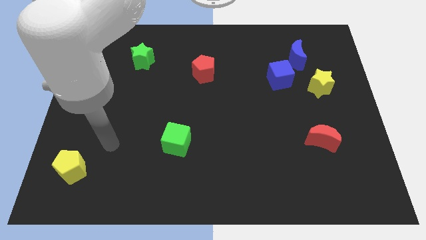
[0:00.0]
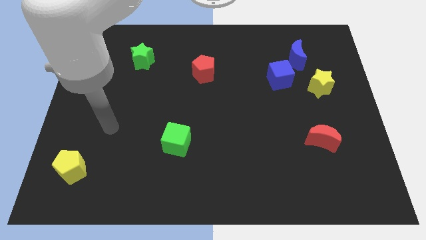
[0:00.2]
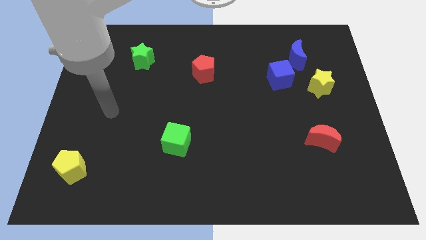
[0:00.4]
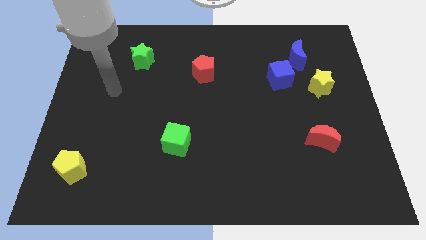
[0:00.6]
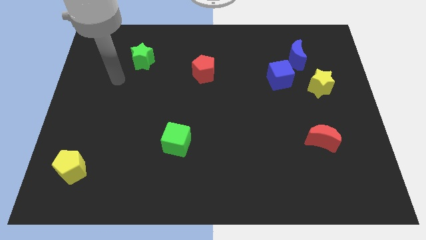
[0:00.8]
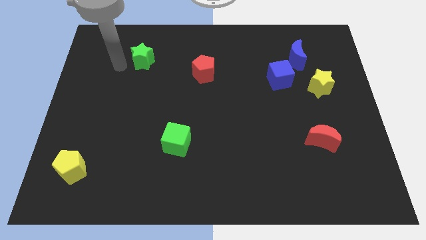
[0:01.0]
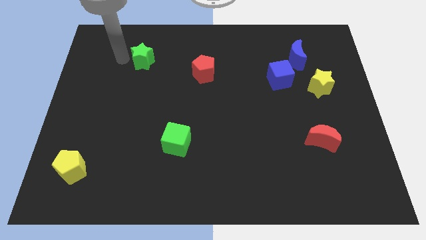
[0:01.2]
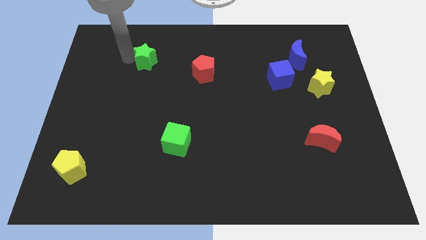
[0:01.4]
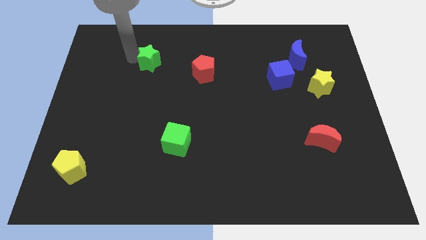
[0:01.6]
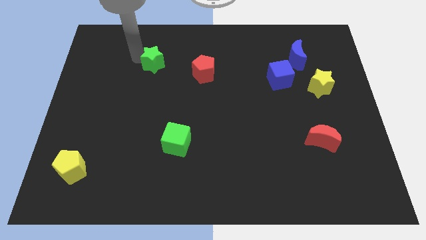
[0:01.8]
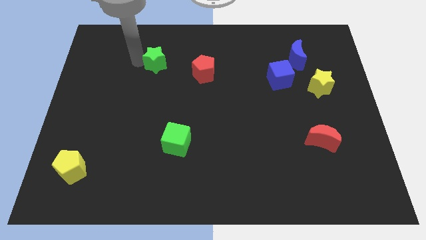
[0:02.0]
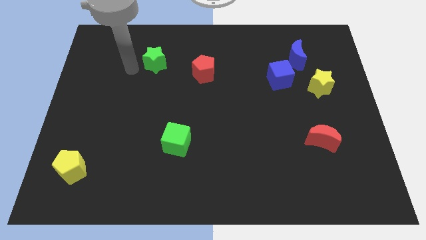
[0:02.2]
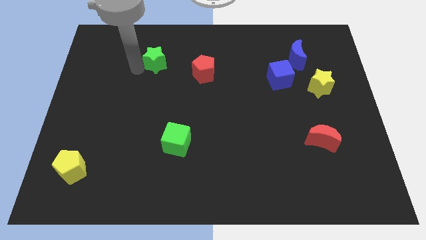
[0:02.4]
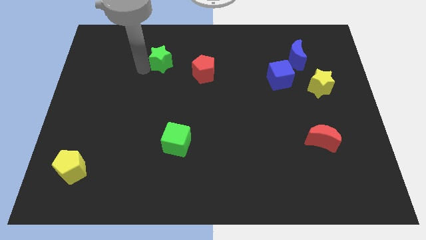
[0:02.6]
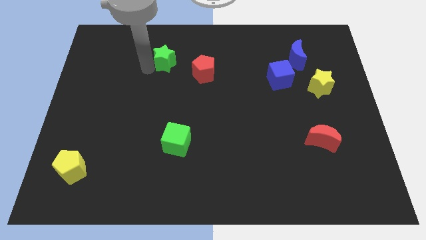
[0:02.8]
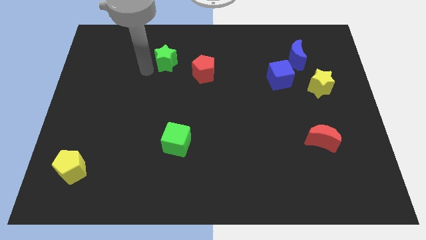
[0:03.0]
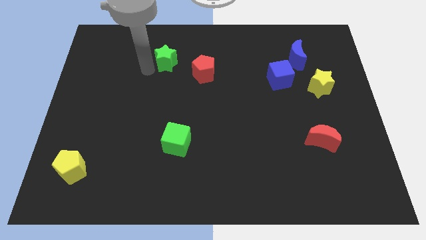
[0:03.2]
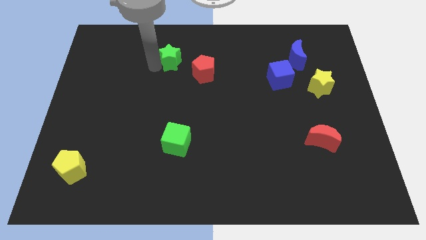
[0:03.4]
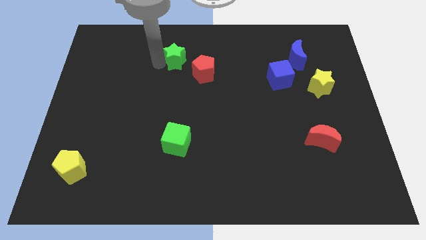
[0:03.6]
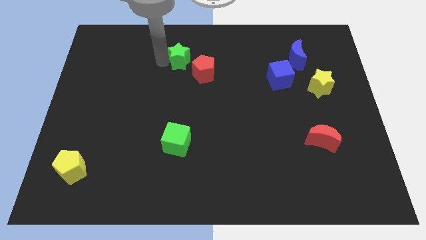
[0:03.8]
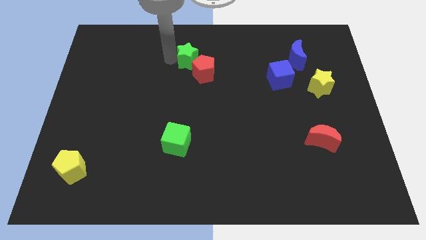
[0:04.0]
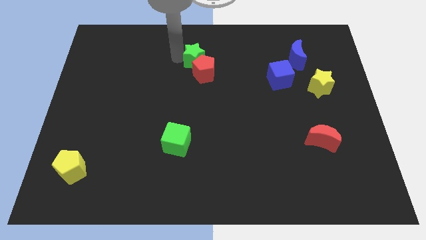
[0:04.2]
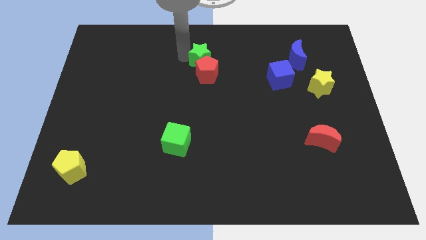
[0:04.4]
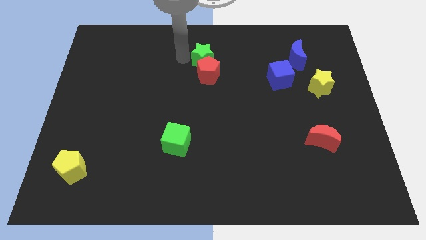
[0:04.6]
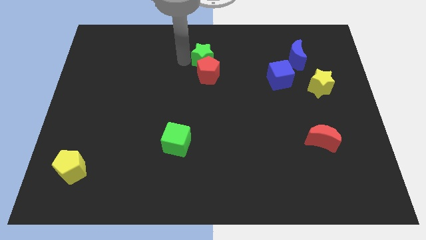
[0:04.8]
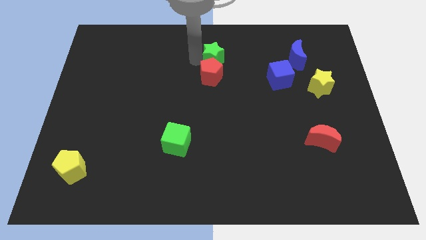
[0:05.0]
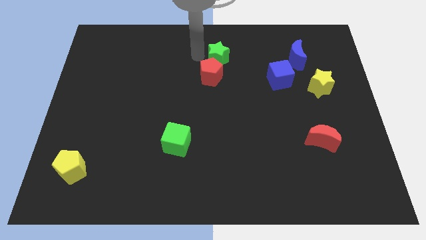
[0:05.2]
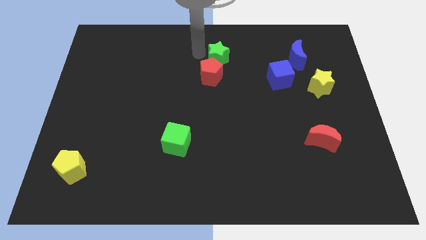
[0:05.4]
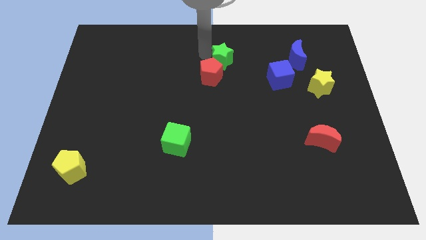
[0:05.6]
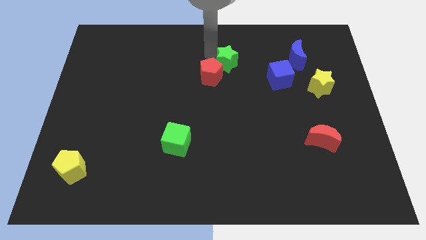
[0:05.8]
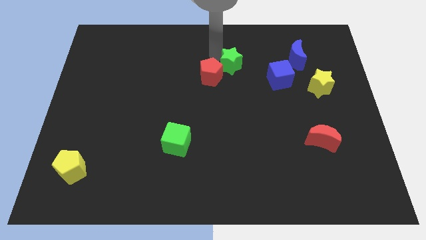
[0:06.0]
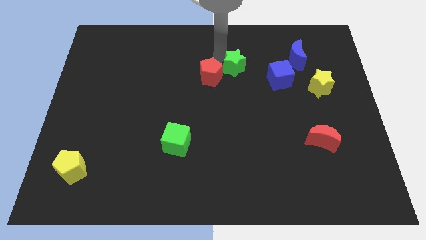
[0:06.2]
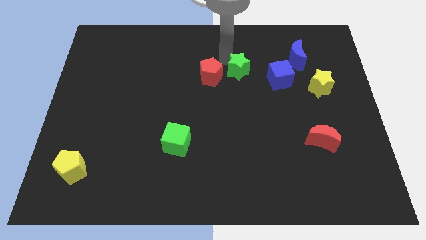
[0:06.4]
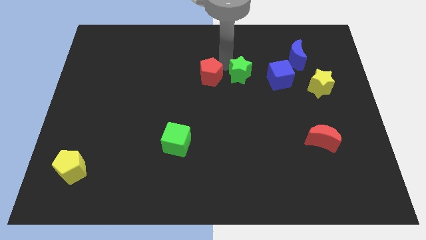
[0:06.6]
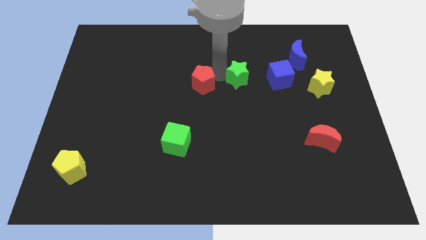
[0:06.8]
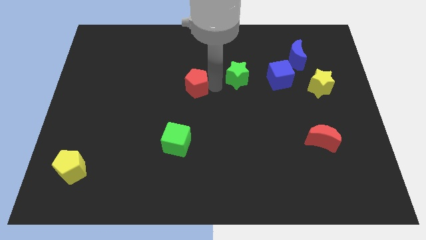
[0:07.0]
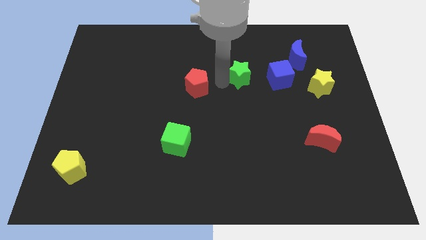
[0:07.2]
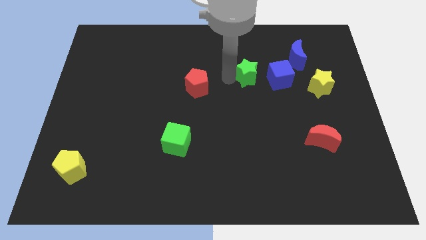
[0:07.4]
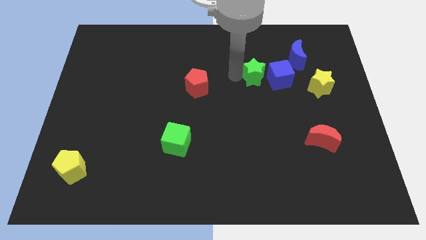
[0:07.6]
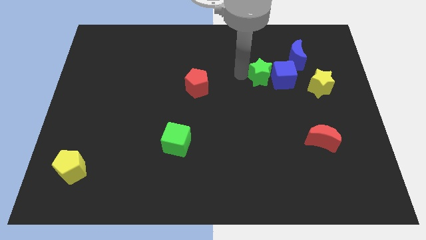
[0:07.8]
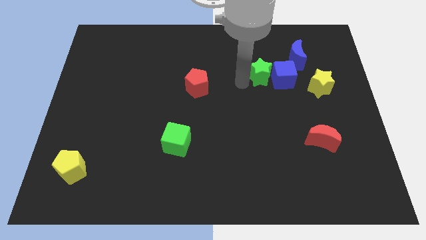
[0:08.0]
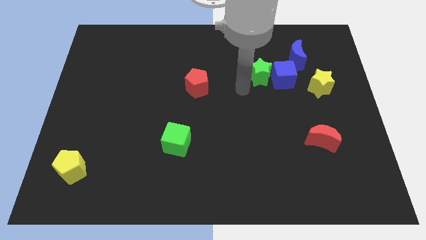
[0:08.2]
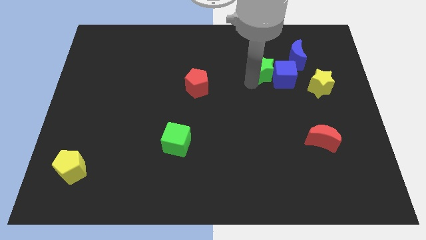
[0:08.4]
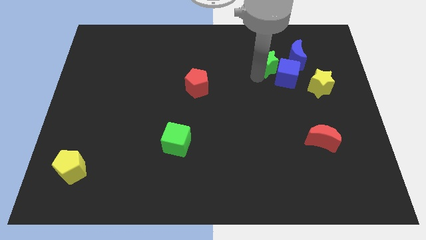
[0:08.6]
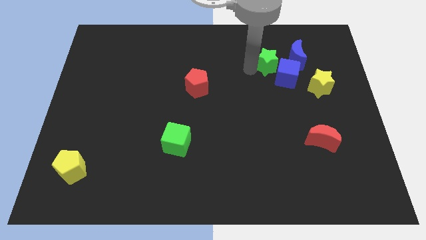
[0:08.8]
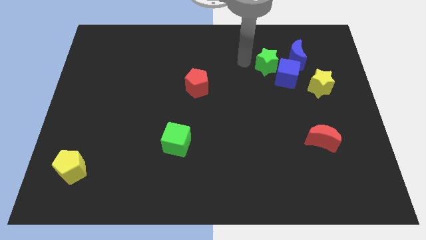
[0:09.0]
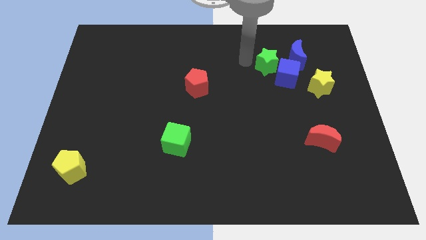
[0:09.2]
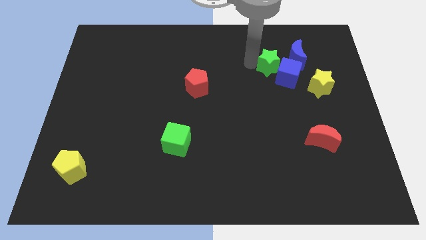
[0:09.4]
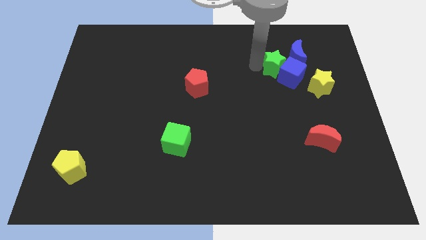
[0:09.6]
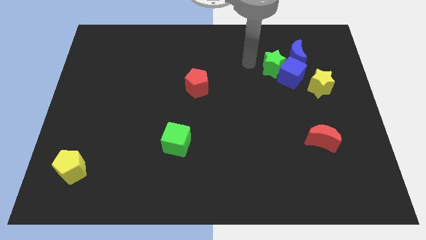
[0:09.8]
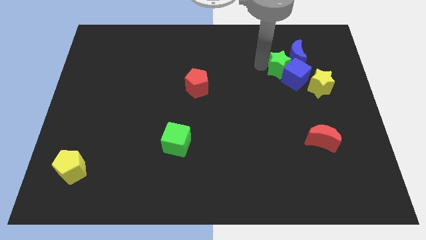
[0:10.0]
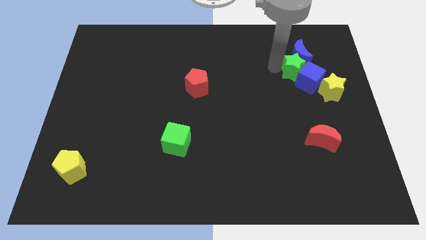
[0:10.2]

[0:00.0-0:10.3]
push the green star to the bottom right side of the blue moon

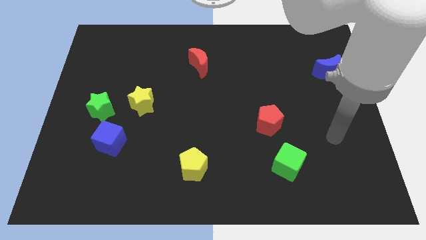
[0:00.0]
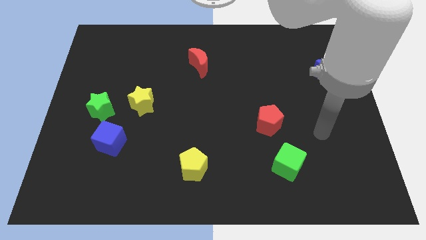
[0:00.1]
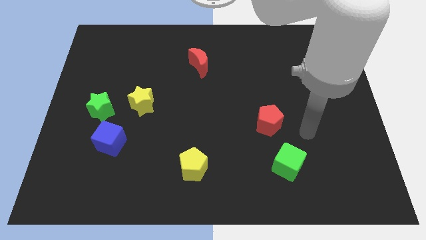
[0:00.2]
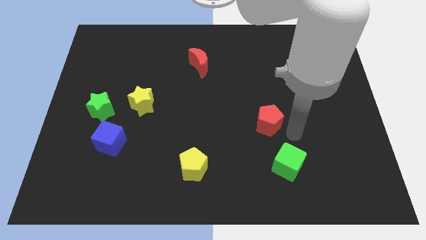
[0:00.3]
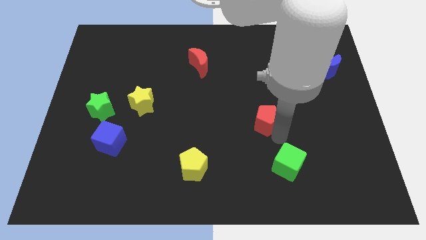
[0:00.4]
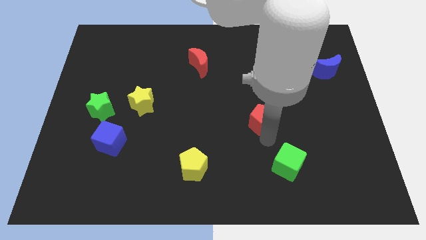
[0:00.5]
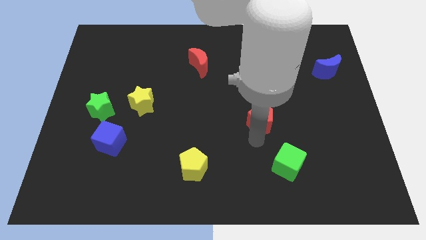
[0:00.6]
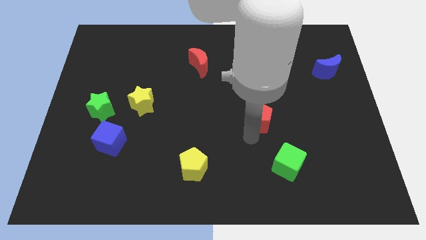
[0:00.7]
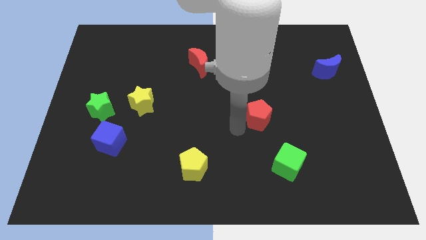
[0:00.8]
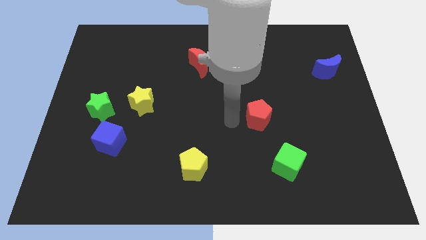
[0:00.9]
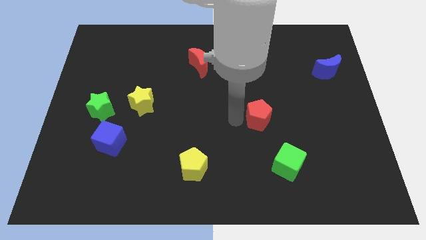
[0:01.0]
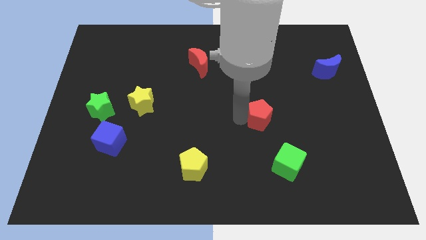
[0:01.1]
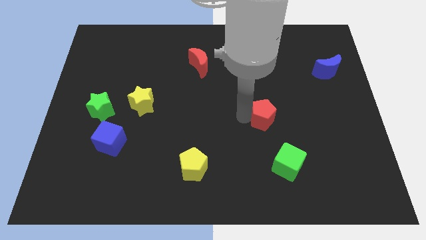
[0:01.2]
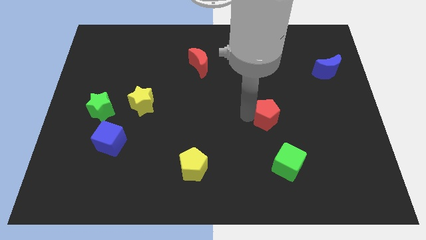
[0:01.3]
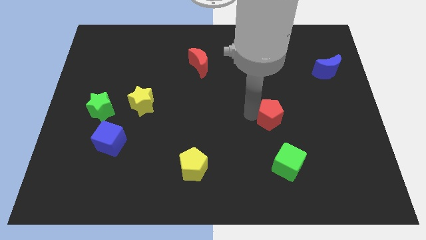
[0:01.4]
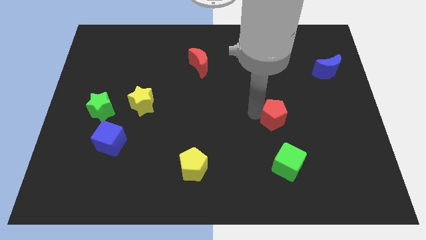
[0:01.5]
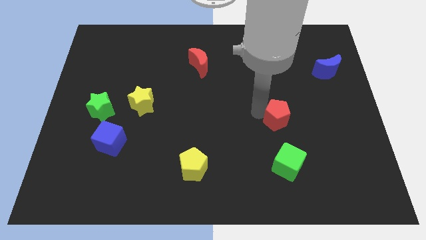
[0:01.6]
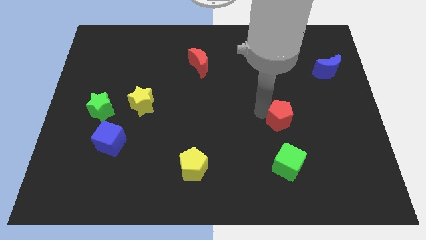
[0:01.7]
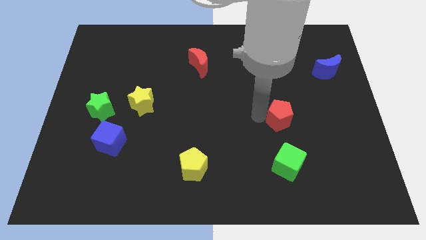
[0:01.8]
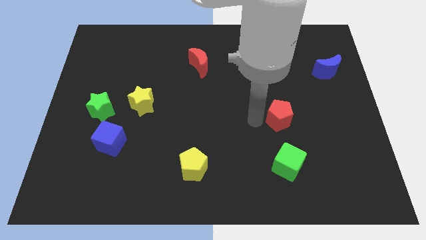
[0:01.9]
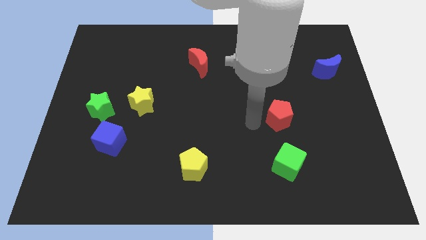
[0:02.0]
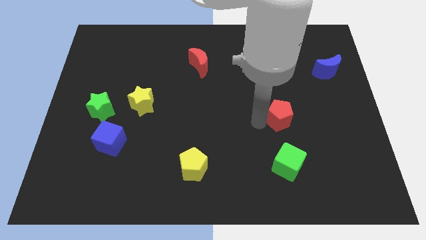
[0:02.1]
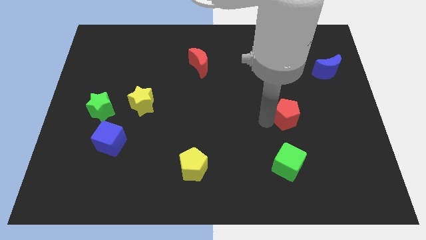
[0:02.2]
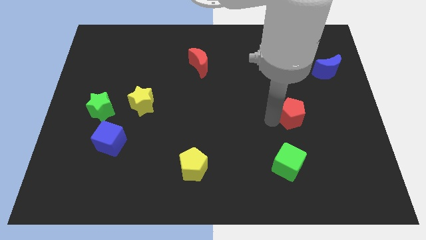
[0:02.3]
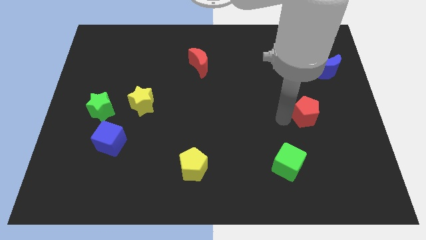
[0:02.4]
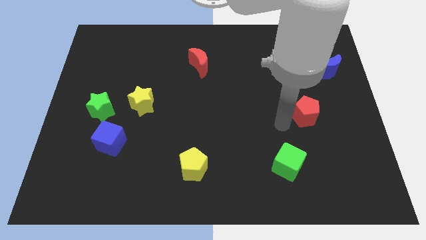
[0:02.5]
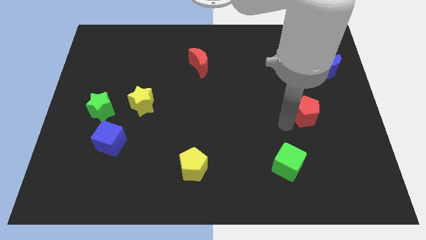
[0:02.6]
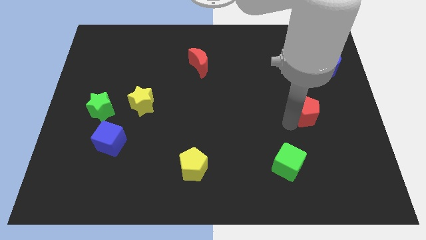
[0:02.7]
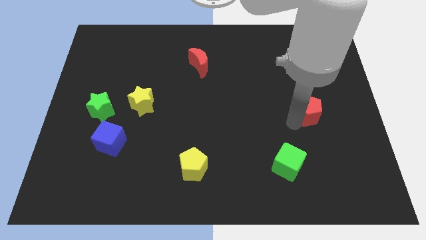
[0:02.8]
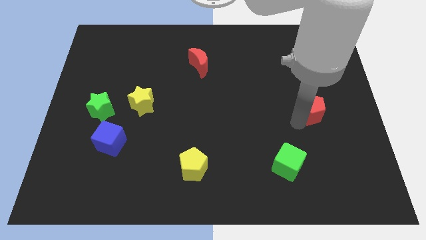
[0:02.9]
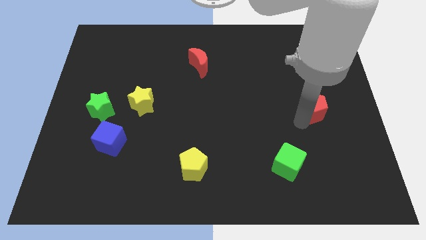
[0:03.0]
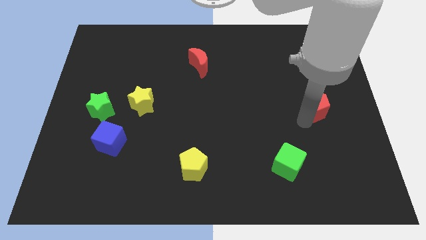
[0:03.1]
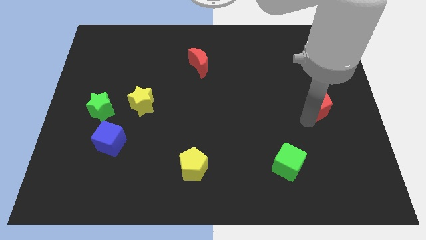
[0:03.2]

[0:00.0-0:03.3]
push the red pentagon below the blue moon
